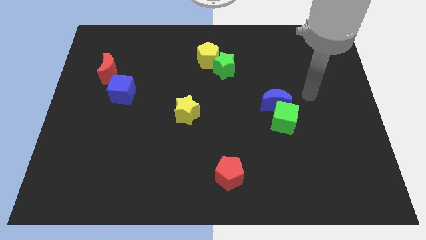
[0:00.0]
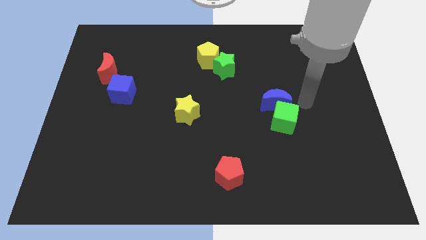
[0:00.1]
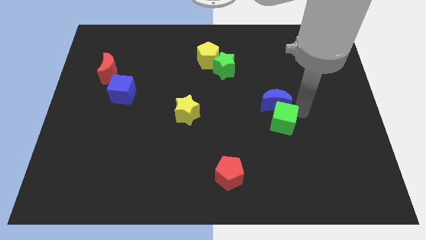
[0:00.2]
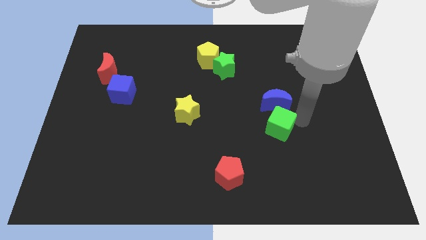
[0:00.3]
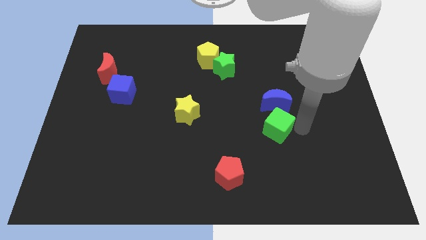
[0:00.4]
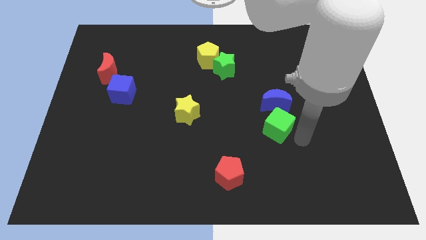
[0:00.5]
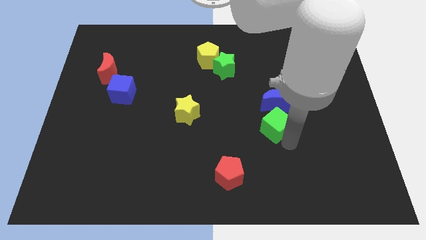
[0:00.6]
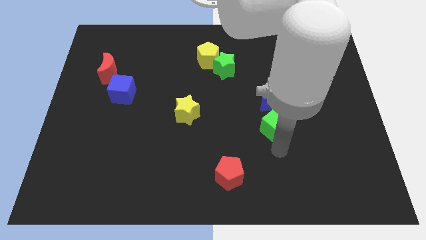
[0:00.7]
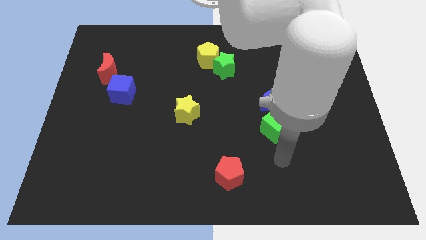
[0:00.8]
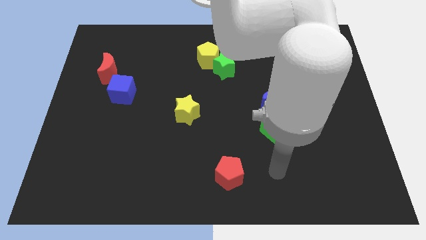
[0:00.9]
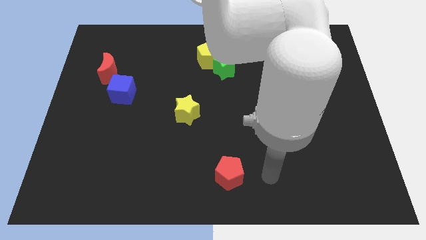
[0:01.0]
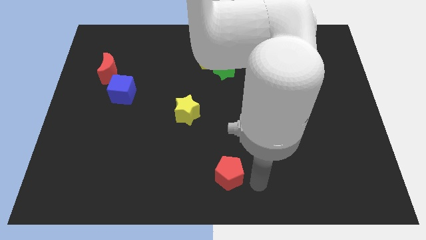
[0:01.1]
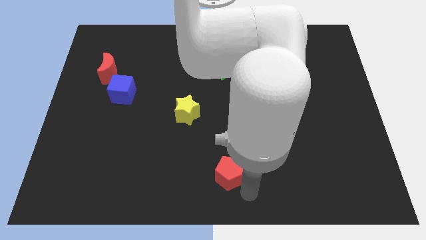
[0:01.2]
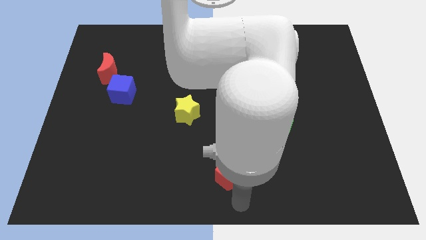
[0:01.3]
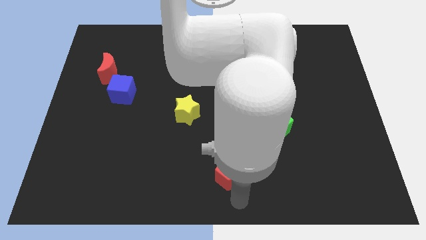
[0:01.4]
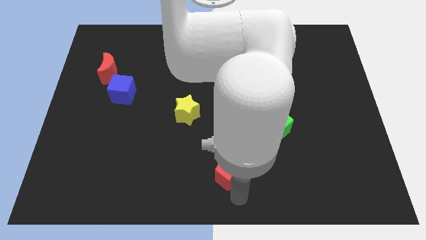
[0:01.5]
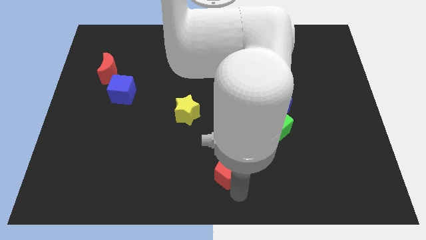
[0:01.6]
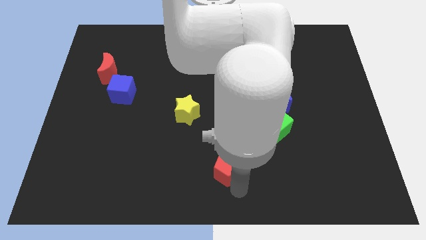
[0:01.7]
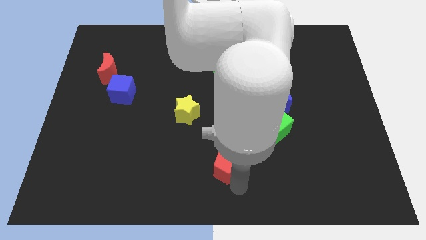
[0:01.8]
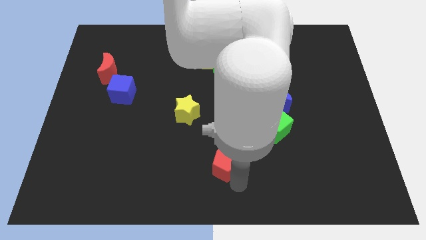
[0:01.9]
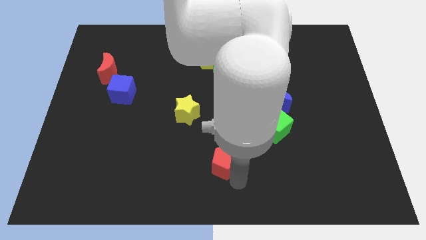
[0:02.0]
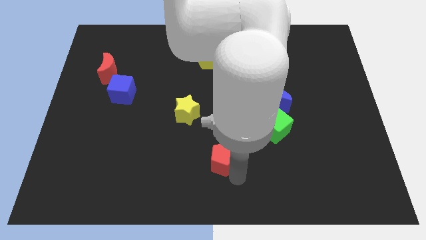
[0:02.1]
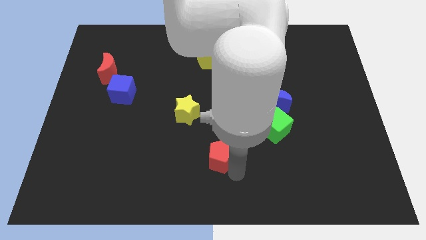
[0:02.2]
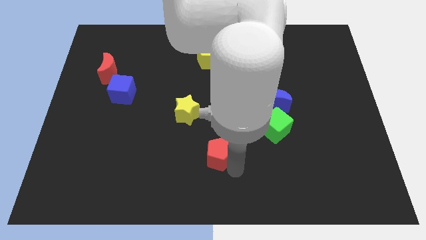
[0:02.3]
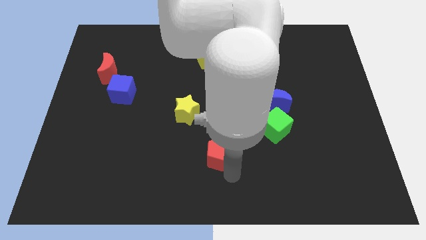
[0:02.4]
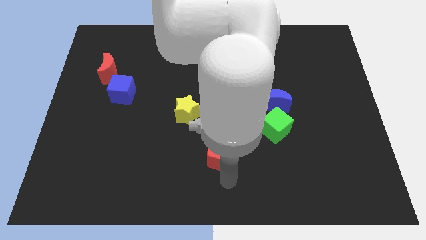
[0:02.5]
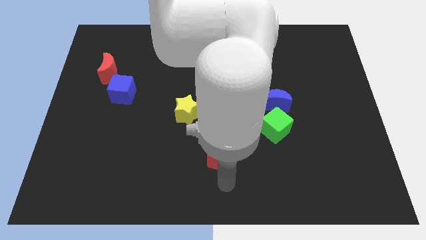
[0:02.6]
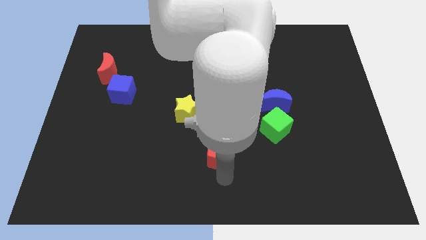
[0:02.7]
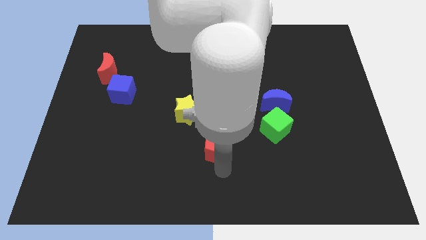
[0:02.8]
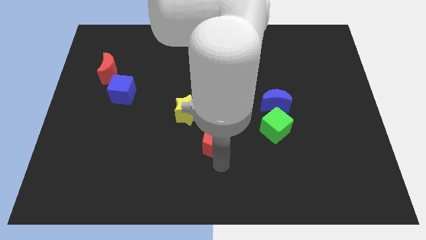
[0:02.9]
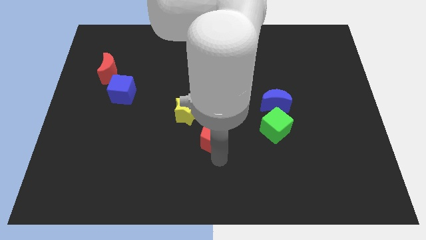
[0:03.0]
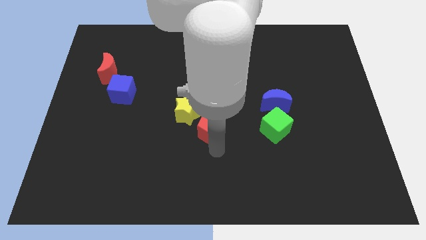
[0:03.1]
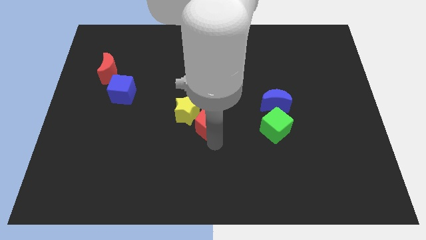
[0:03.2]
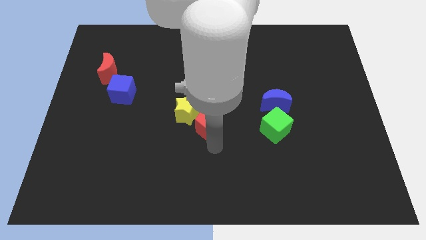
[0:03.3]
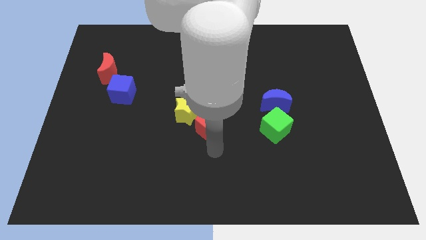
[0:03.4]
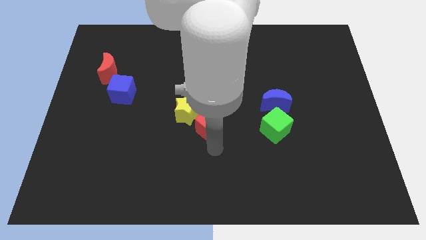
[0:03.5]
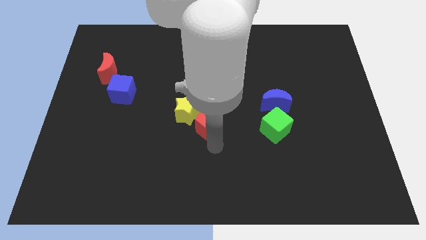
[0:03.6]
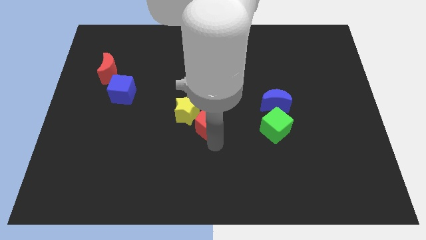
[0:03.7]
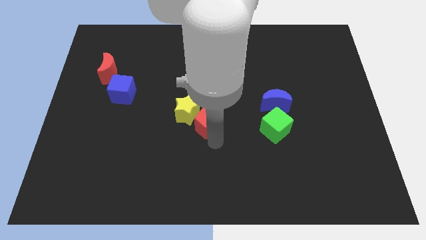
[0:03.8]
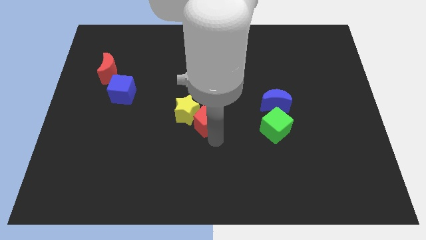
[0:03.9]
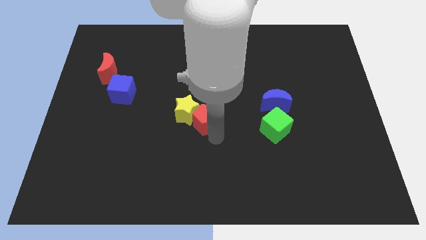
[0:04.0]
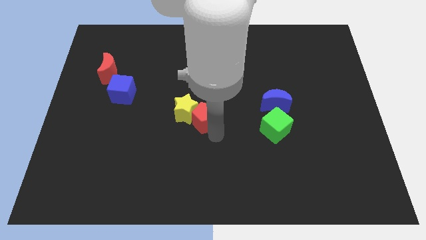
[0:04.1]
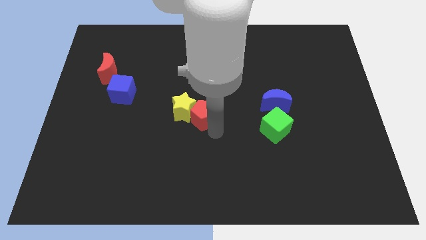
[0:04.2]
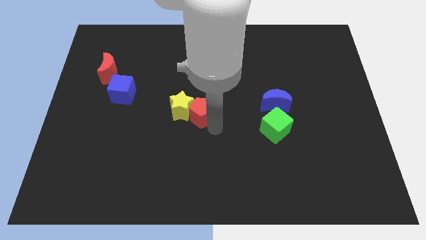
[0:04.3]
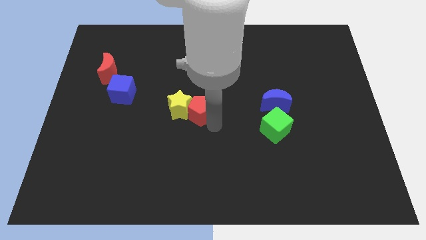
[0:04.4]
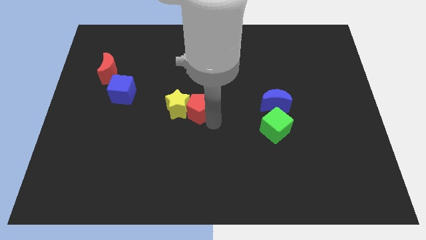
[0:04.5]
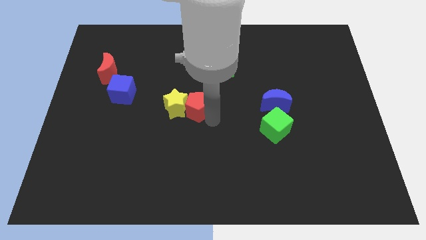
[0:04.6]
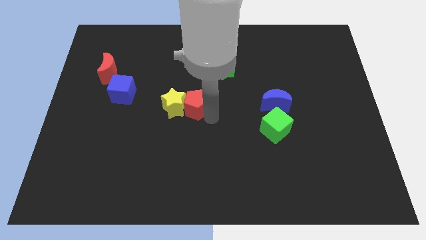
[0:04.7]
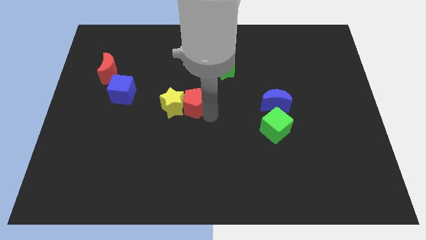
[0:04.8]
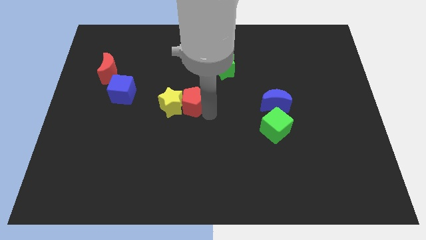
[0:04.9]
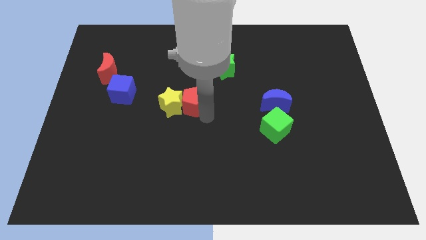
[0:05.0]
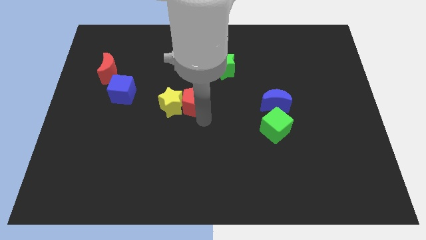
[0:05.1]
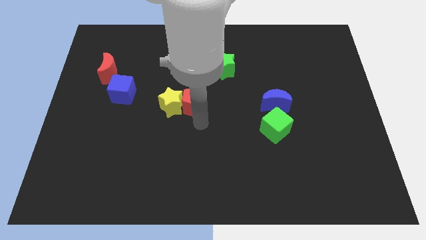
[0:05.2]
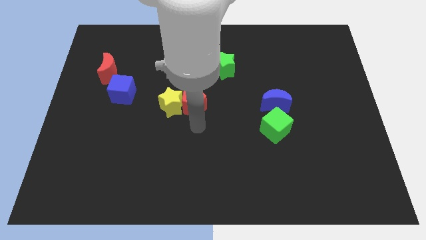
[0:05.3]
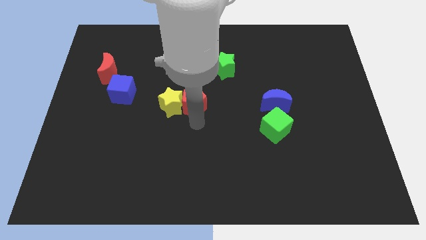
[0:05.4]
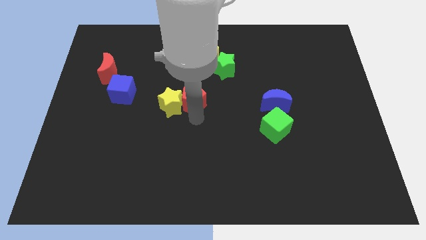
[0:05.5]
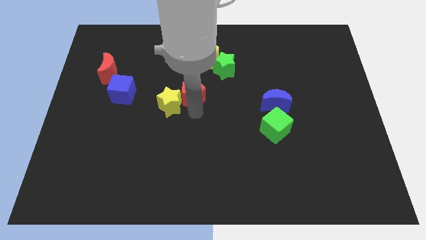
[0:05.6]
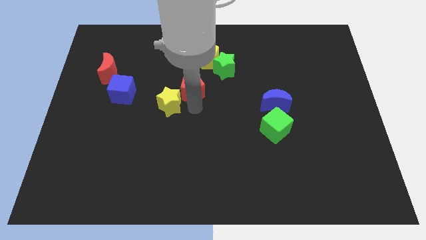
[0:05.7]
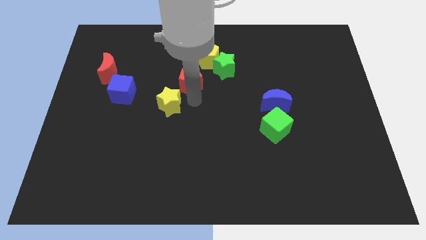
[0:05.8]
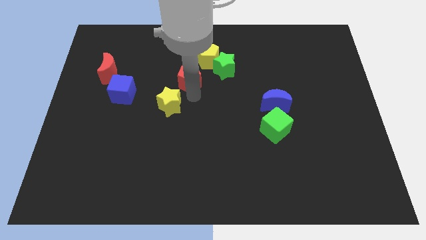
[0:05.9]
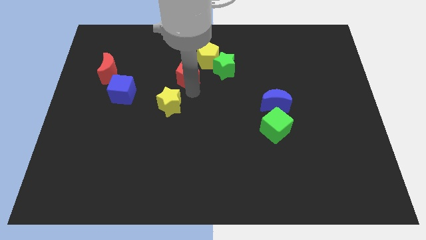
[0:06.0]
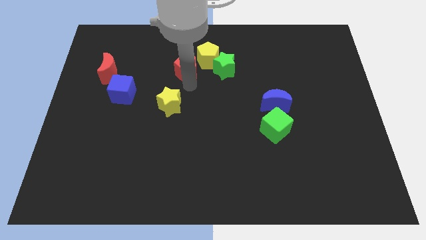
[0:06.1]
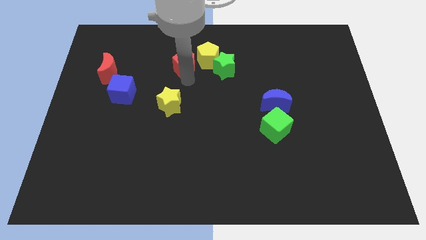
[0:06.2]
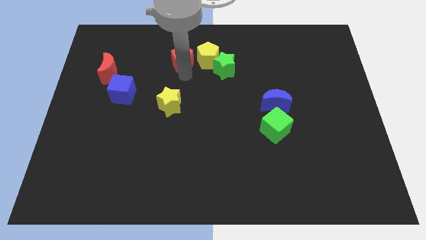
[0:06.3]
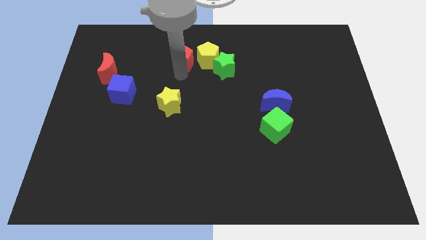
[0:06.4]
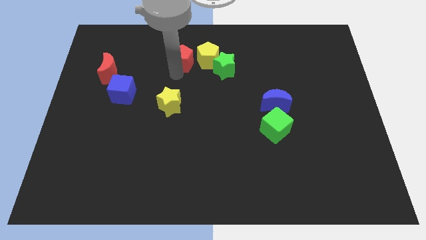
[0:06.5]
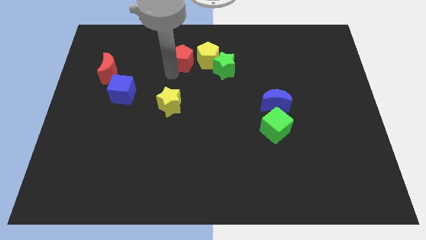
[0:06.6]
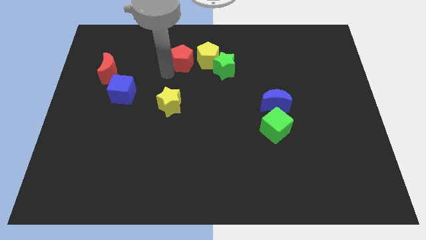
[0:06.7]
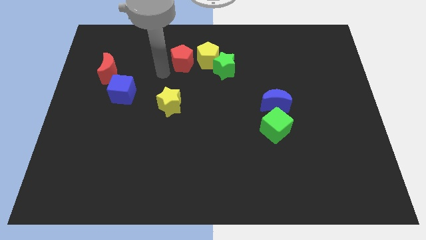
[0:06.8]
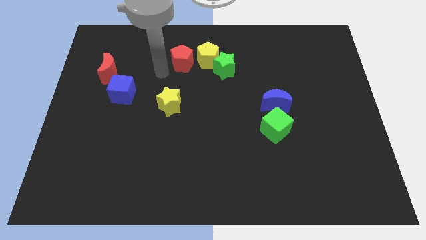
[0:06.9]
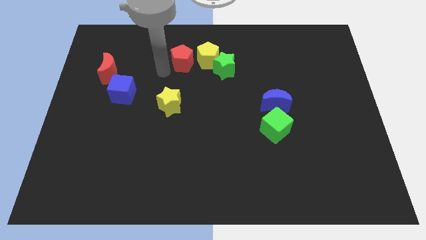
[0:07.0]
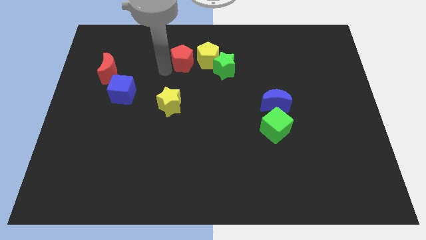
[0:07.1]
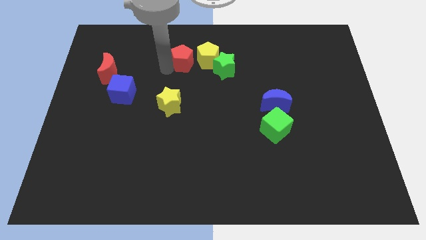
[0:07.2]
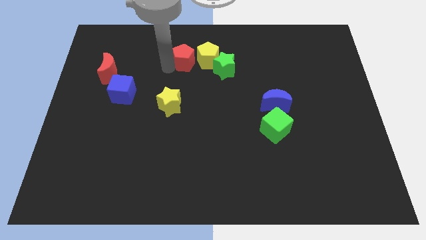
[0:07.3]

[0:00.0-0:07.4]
slide the red pentagon next to the yellow pentagon

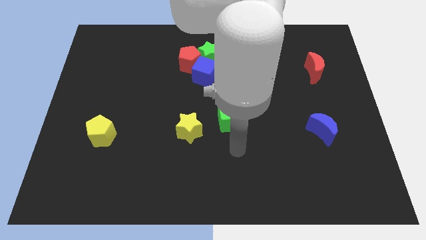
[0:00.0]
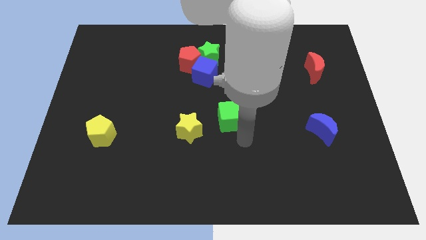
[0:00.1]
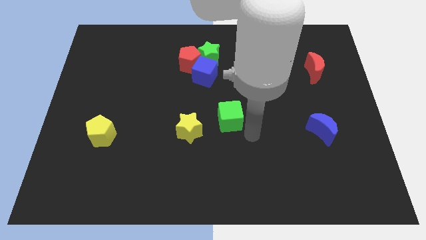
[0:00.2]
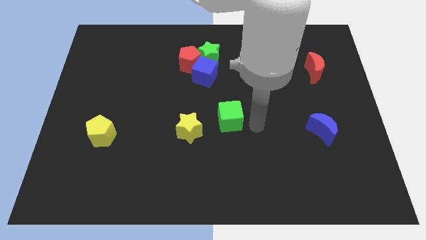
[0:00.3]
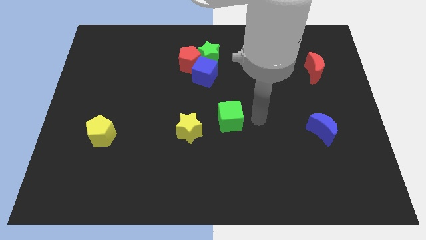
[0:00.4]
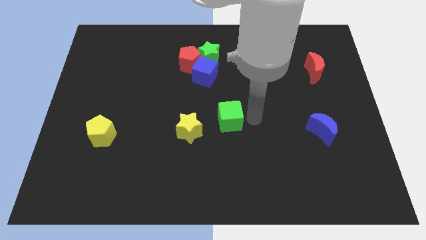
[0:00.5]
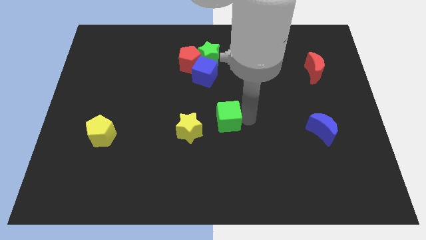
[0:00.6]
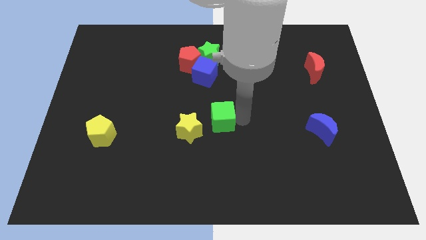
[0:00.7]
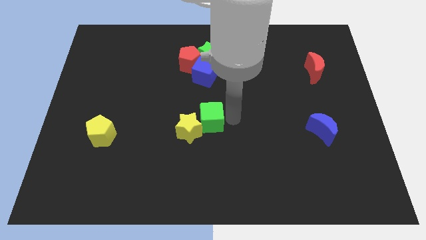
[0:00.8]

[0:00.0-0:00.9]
push the green cube close to the yellow star

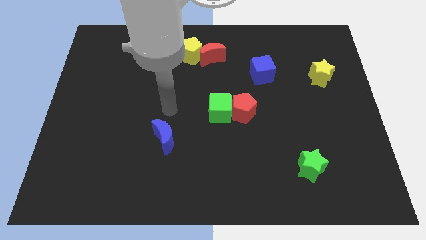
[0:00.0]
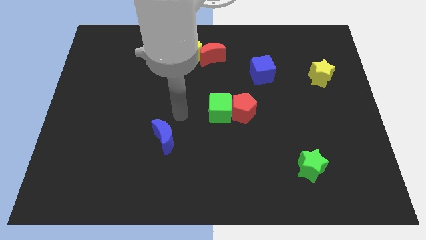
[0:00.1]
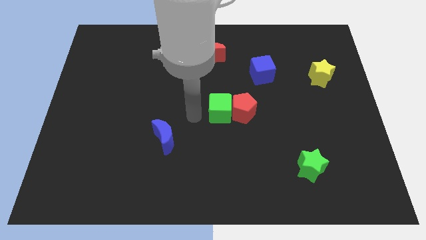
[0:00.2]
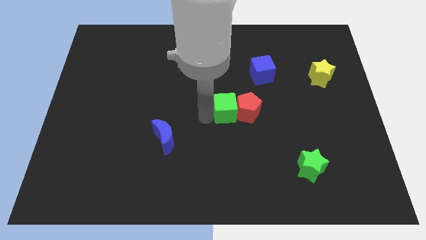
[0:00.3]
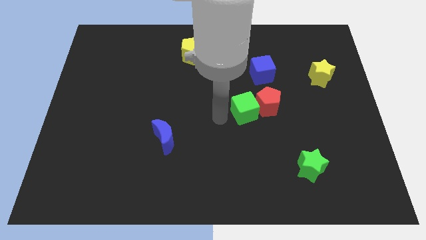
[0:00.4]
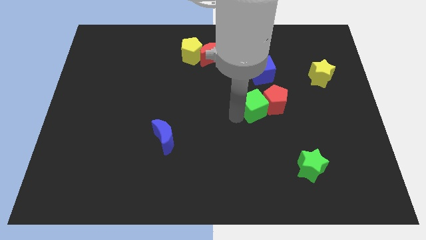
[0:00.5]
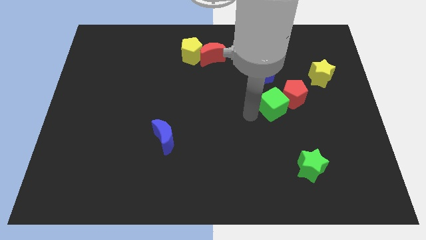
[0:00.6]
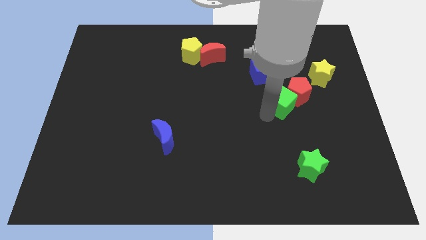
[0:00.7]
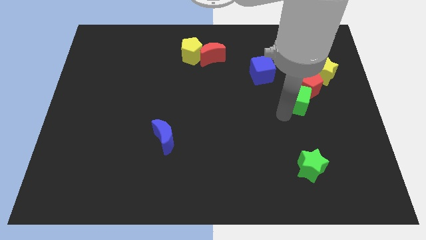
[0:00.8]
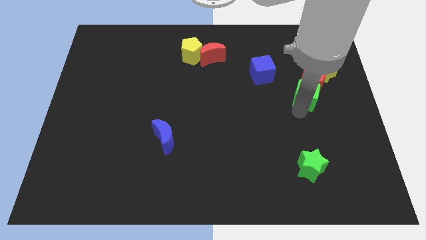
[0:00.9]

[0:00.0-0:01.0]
push the red pentagon close to the yellow star
